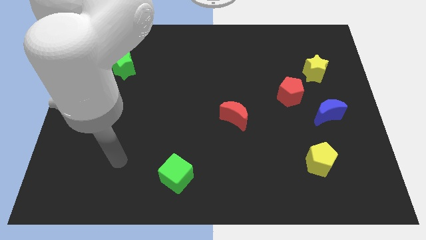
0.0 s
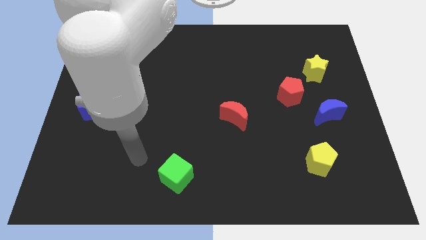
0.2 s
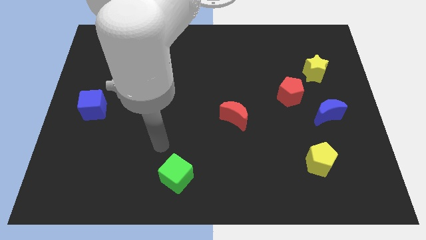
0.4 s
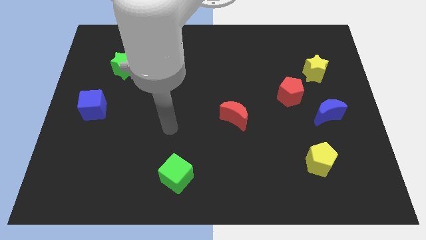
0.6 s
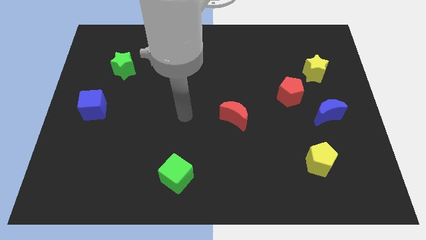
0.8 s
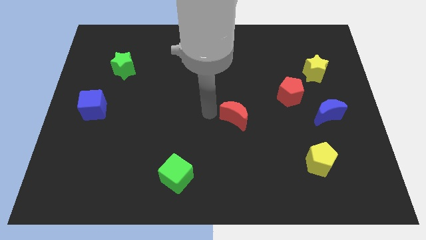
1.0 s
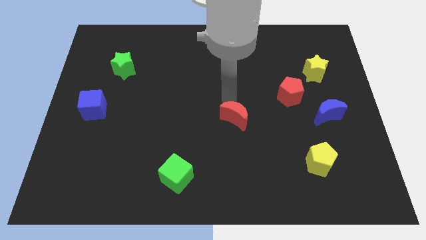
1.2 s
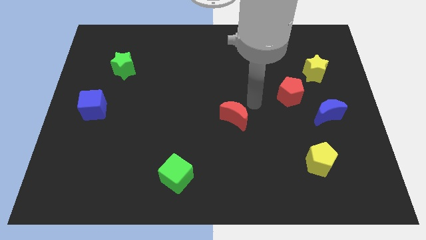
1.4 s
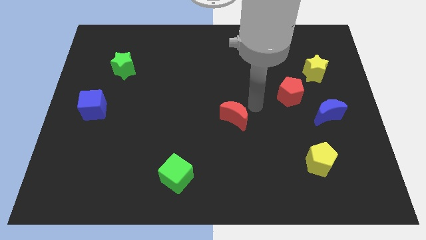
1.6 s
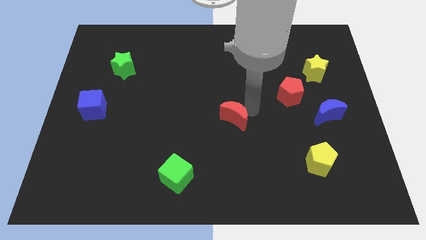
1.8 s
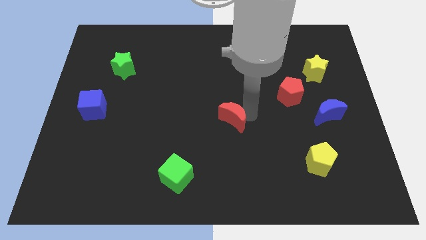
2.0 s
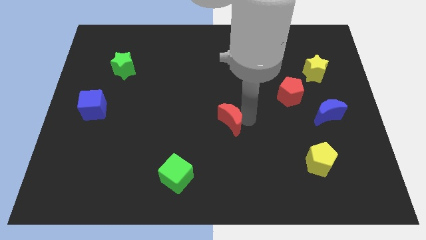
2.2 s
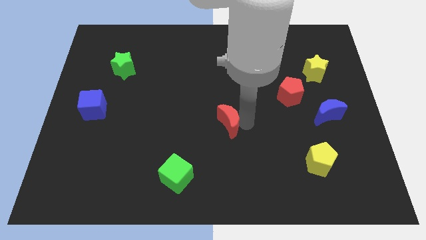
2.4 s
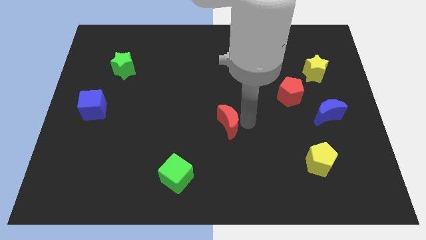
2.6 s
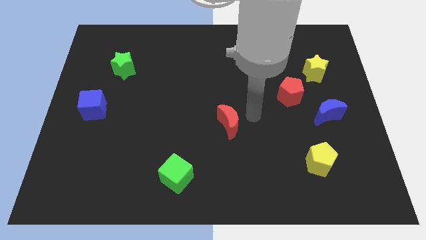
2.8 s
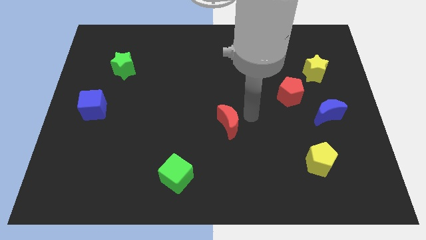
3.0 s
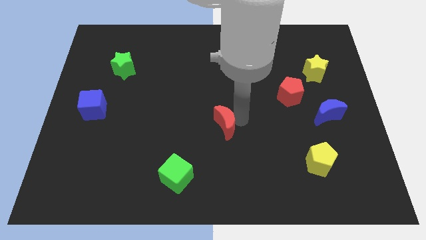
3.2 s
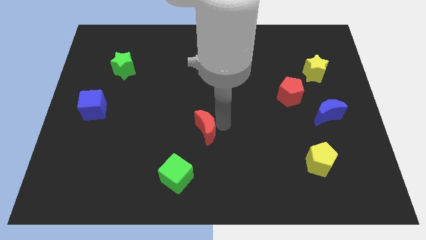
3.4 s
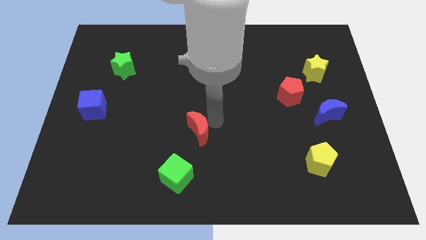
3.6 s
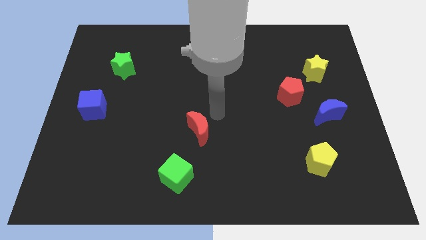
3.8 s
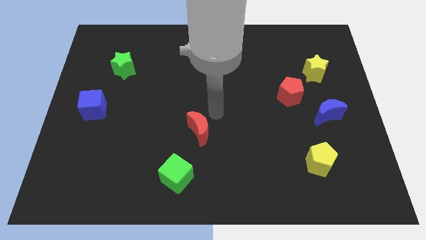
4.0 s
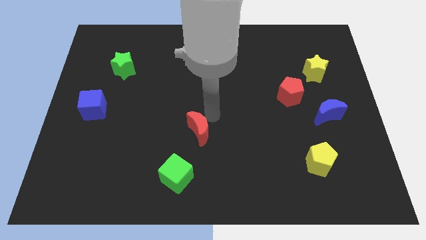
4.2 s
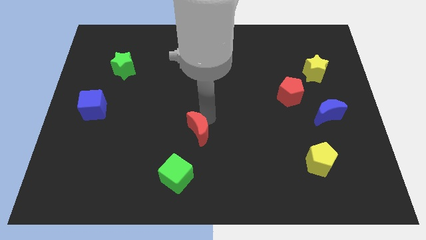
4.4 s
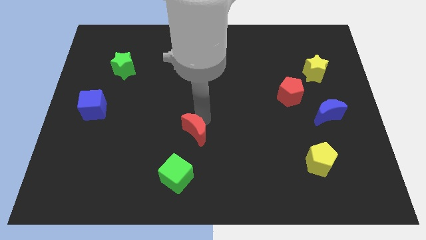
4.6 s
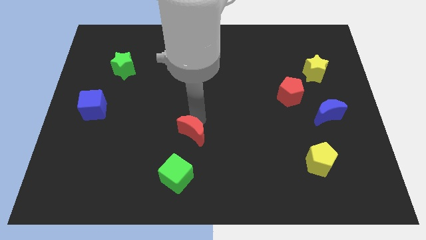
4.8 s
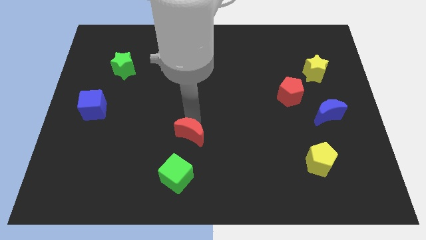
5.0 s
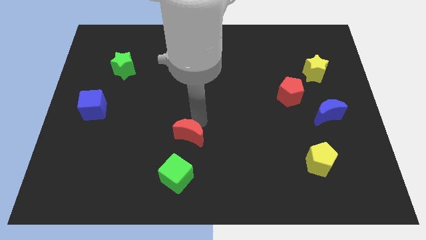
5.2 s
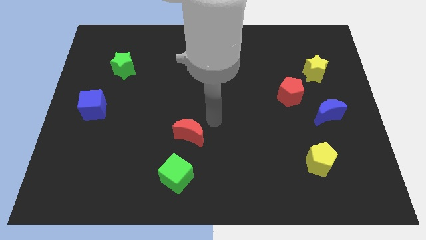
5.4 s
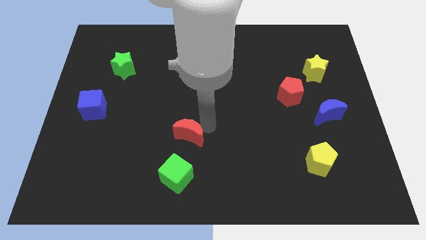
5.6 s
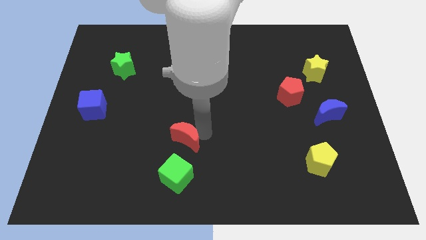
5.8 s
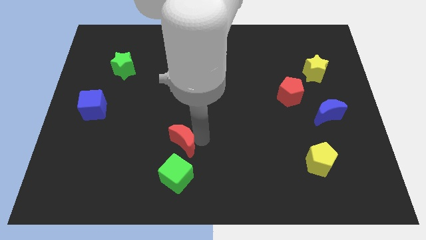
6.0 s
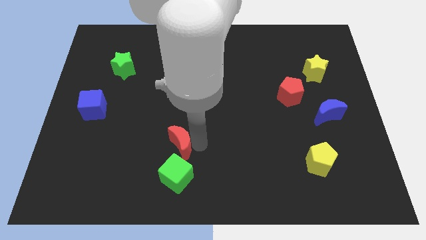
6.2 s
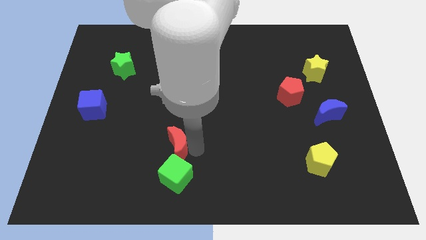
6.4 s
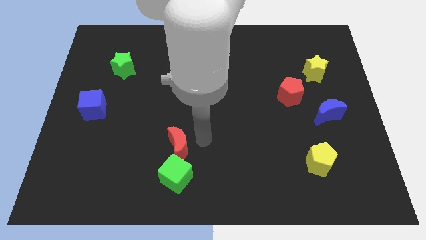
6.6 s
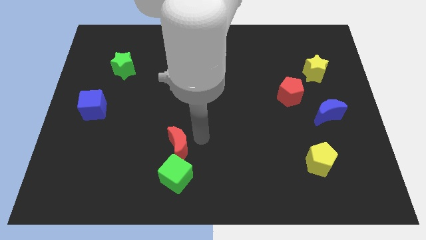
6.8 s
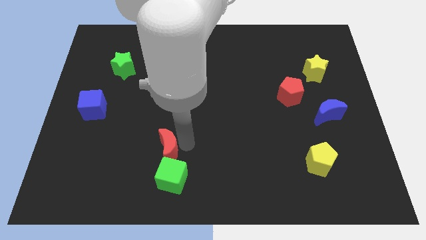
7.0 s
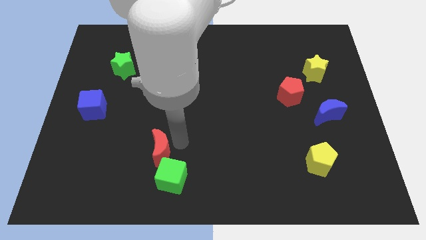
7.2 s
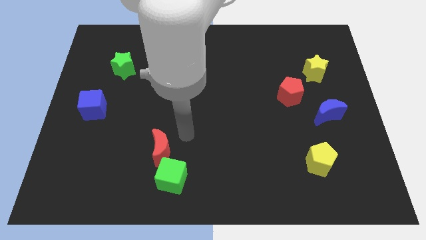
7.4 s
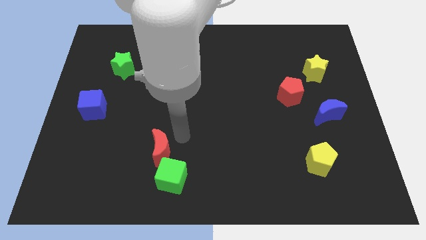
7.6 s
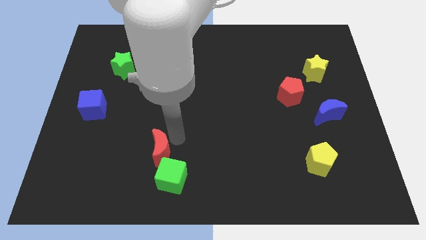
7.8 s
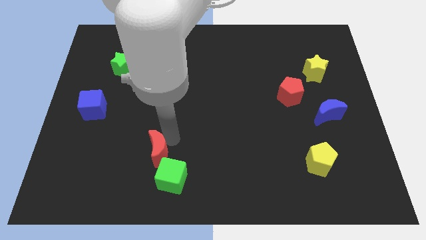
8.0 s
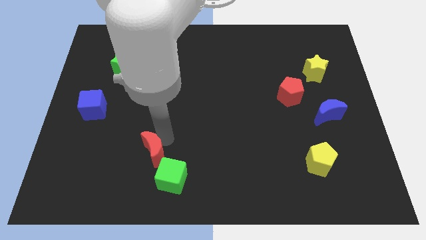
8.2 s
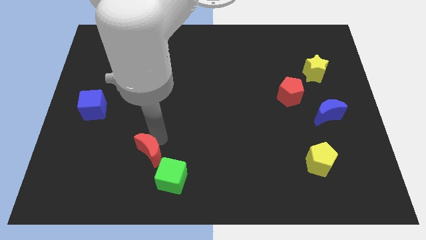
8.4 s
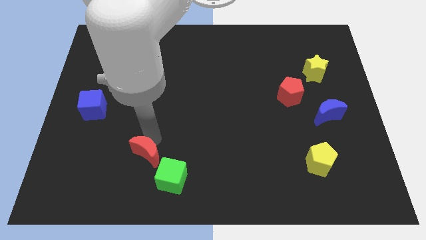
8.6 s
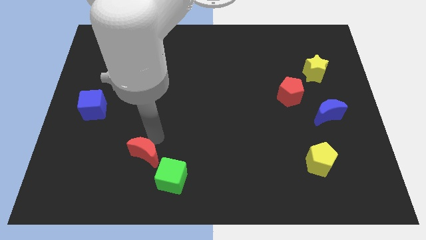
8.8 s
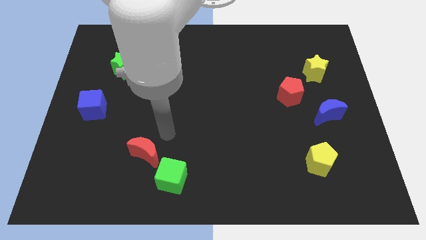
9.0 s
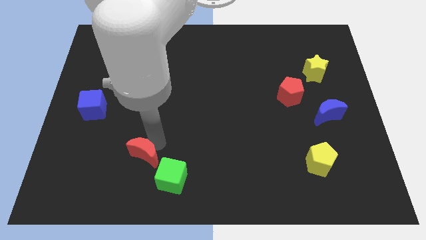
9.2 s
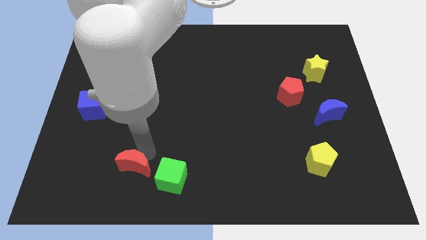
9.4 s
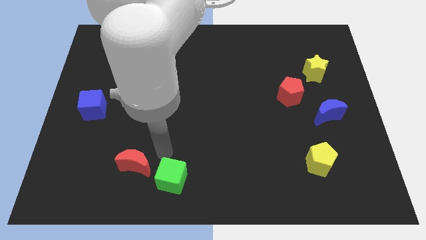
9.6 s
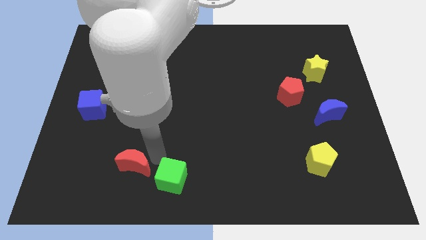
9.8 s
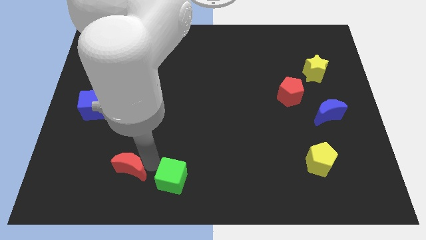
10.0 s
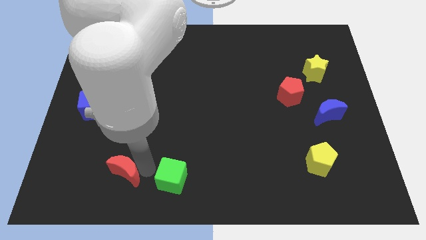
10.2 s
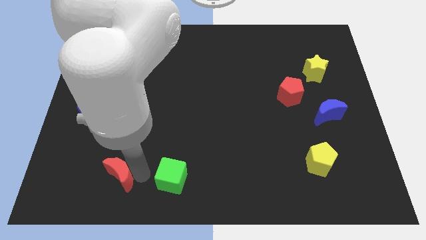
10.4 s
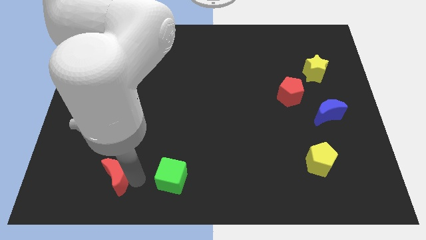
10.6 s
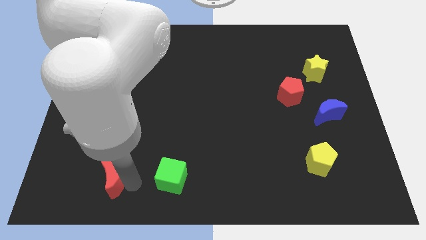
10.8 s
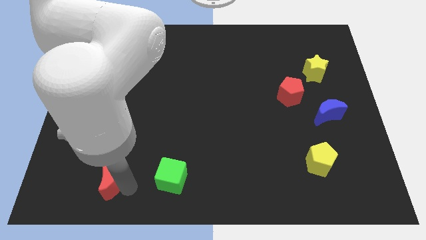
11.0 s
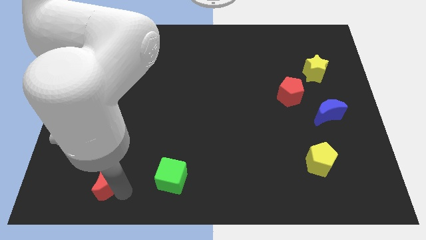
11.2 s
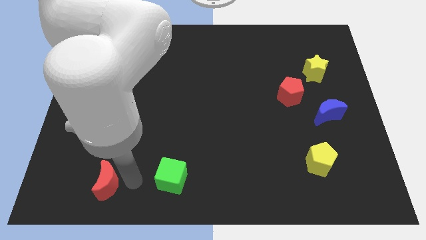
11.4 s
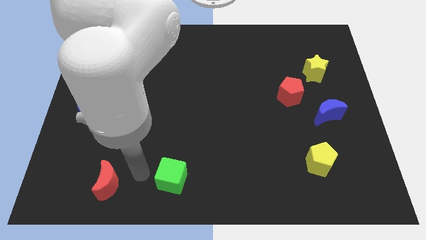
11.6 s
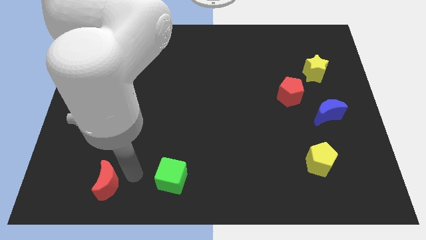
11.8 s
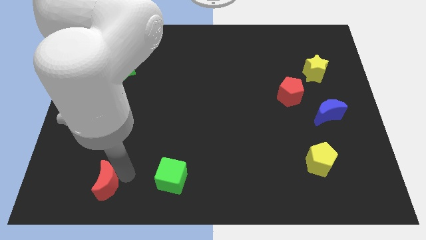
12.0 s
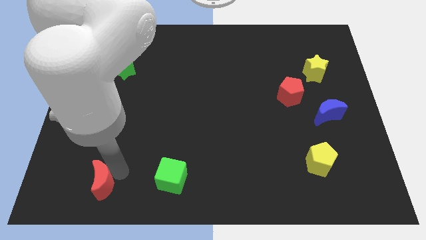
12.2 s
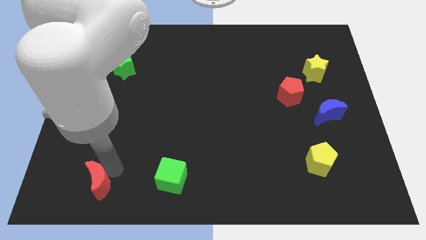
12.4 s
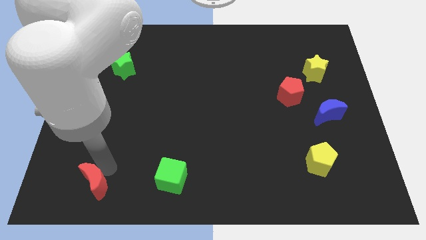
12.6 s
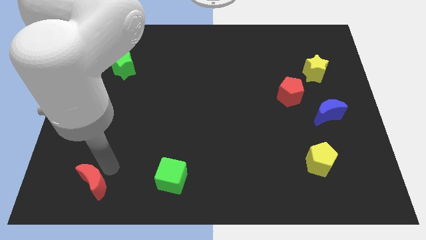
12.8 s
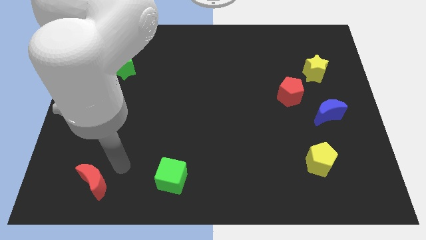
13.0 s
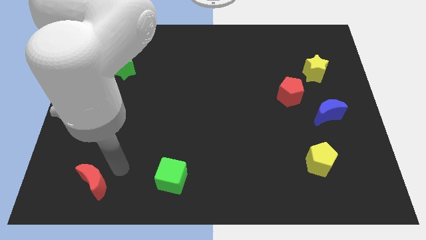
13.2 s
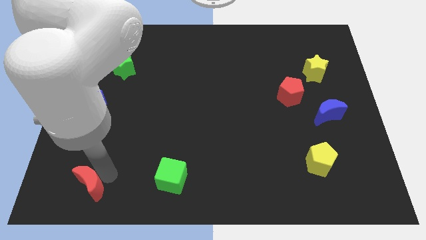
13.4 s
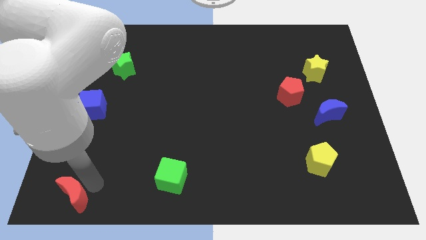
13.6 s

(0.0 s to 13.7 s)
put the red moon to the lower left corner
